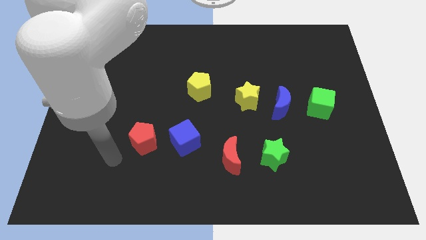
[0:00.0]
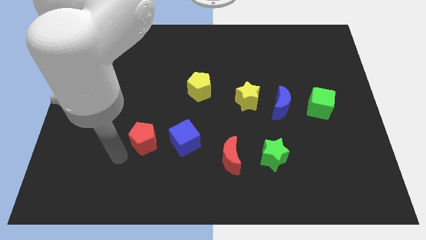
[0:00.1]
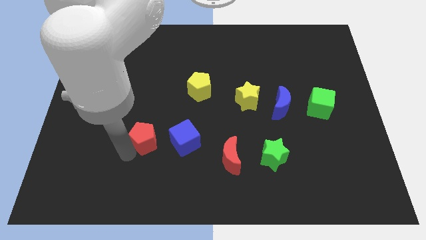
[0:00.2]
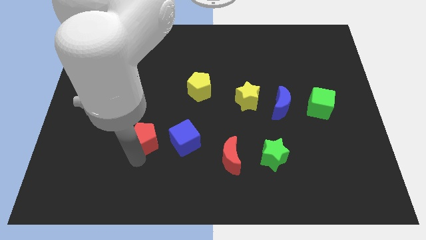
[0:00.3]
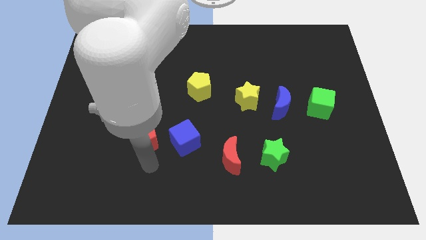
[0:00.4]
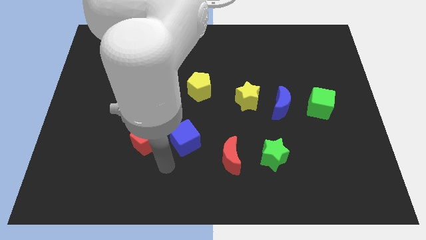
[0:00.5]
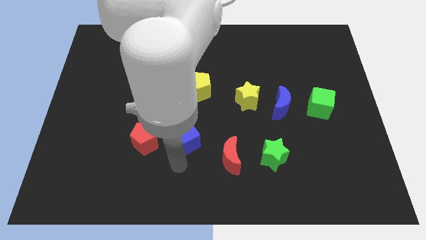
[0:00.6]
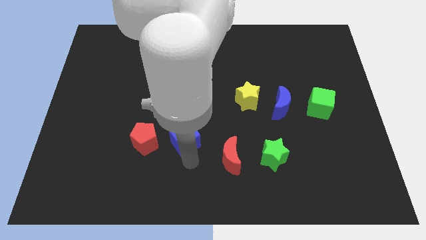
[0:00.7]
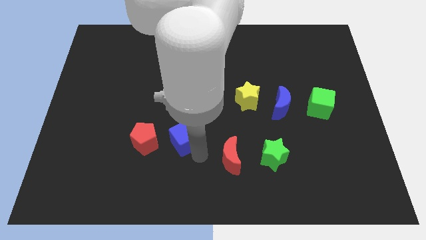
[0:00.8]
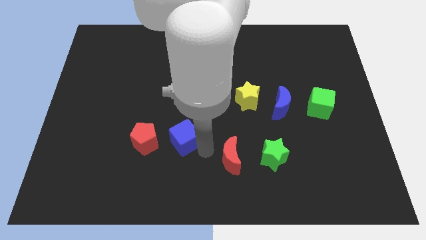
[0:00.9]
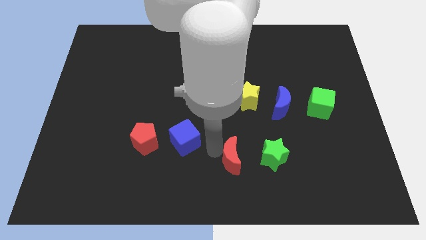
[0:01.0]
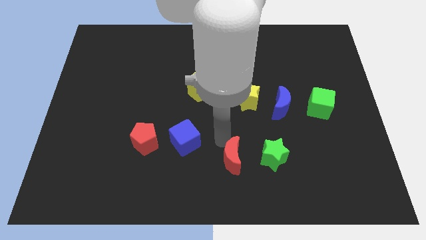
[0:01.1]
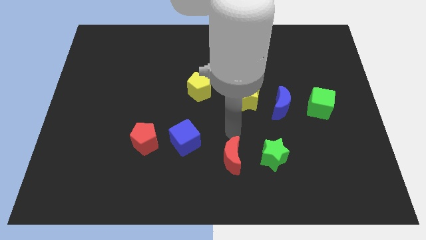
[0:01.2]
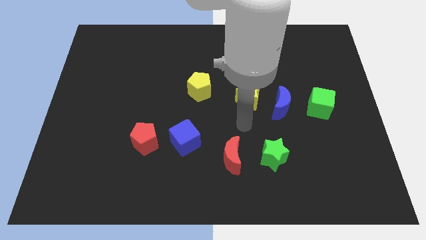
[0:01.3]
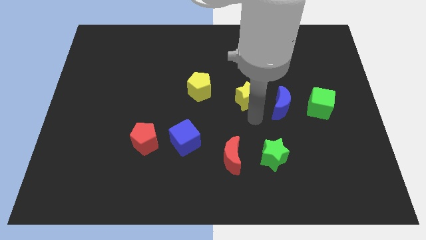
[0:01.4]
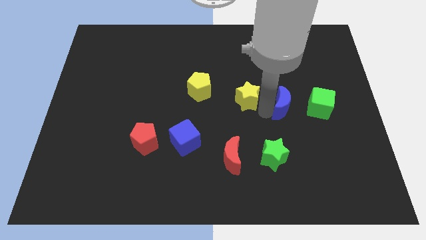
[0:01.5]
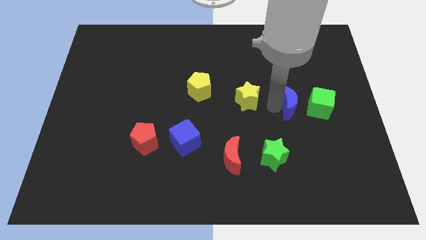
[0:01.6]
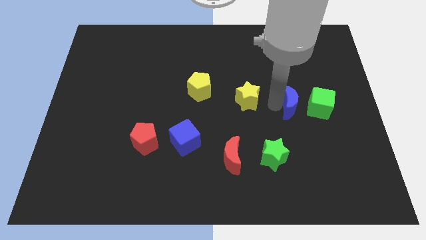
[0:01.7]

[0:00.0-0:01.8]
pull the yellow star apart from the blue moon

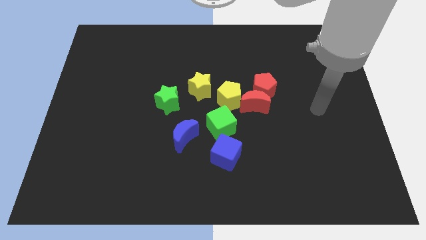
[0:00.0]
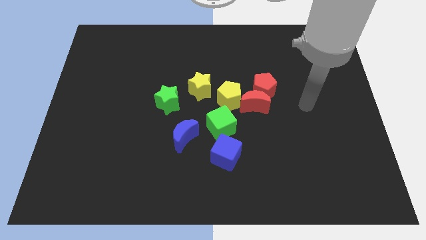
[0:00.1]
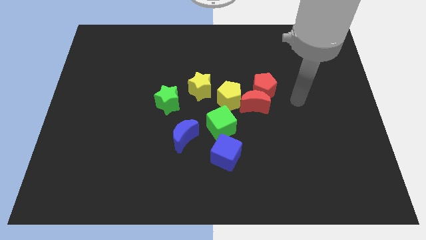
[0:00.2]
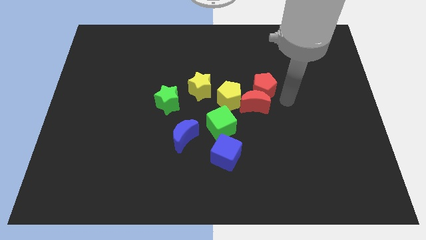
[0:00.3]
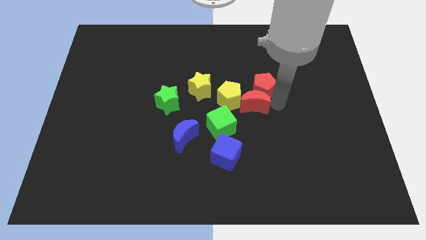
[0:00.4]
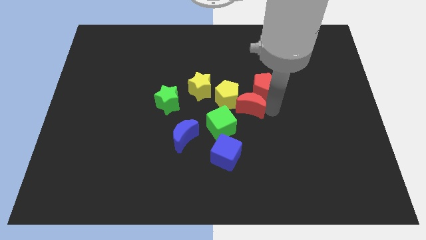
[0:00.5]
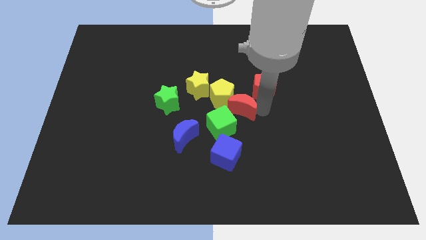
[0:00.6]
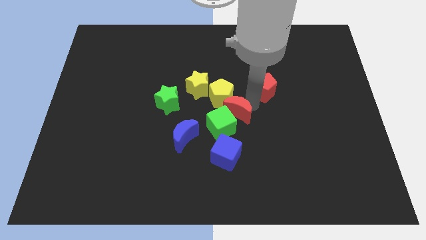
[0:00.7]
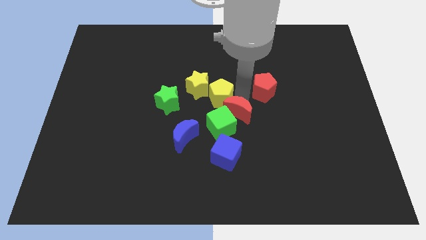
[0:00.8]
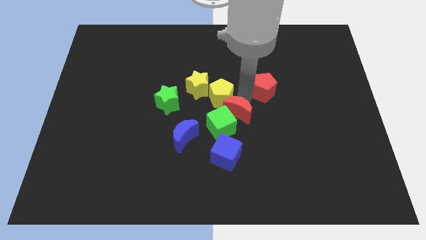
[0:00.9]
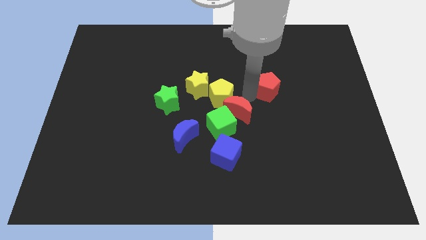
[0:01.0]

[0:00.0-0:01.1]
pull the red pentagon apart from the red moon and yellow pentagon

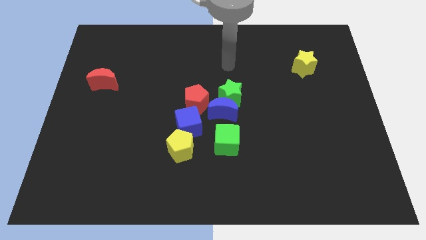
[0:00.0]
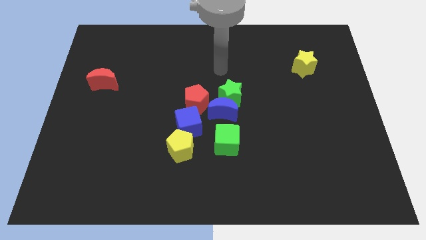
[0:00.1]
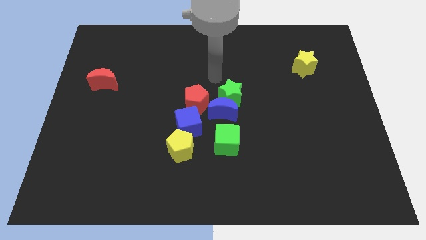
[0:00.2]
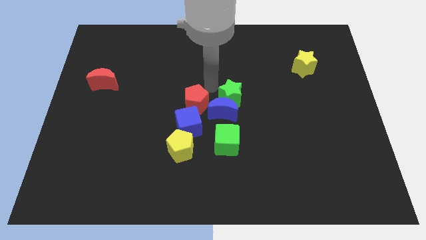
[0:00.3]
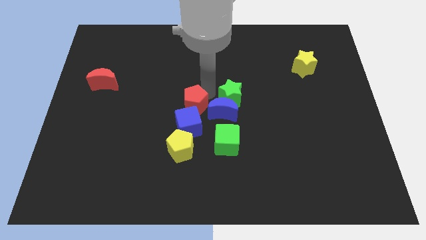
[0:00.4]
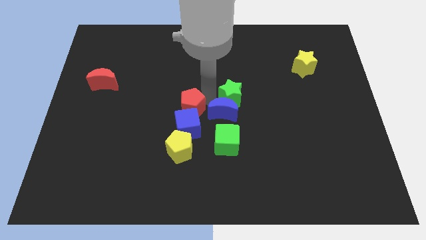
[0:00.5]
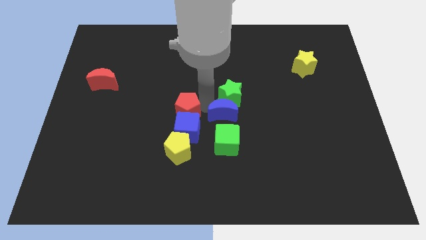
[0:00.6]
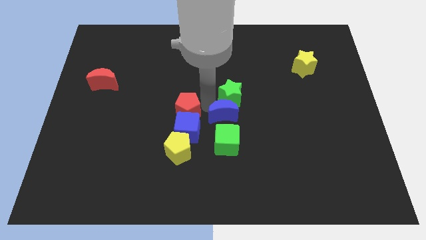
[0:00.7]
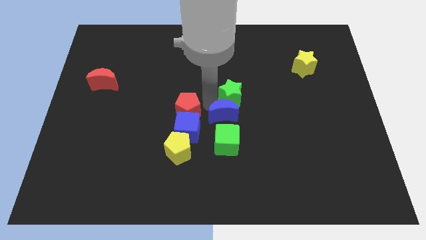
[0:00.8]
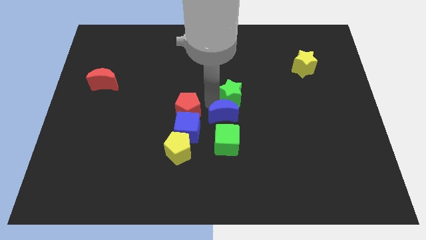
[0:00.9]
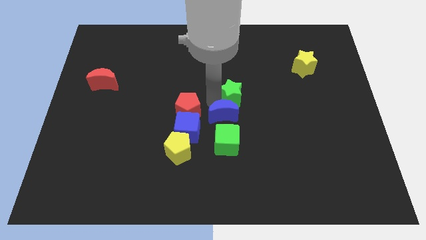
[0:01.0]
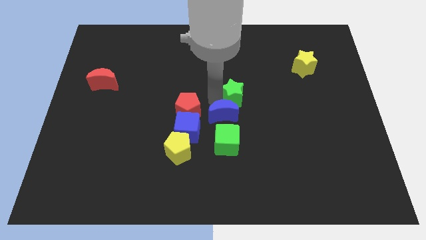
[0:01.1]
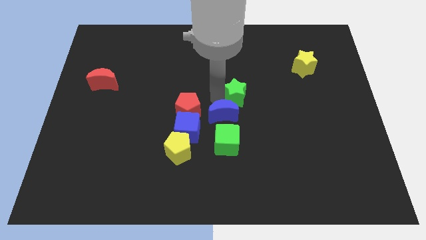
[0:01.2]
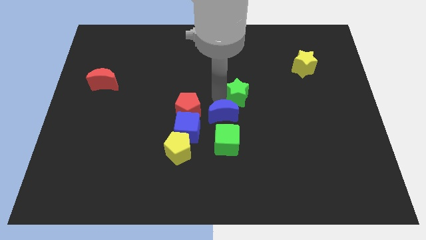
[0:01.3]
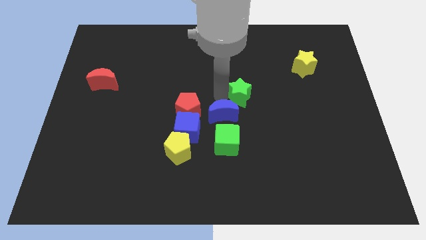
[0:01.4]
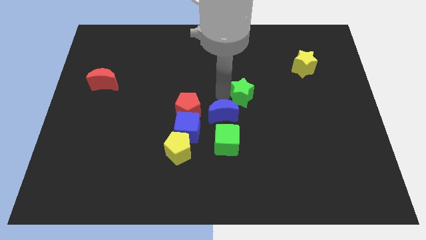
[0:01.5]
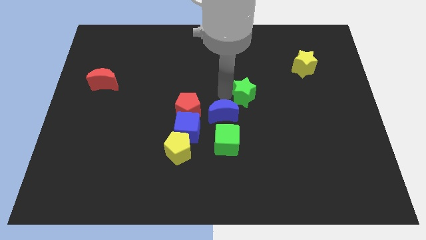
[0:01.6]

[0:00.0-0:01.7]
separate the green star from the blue moon and red pentagon

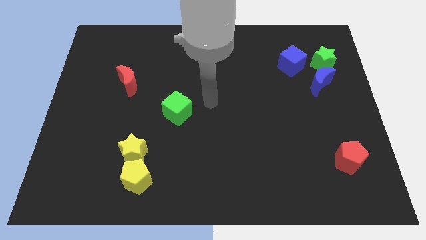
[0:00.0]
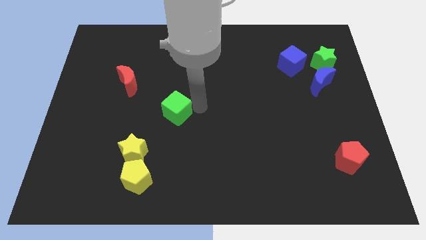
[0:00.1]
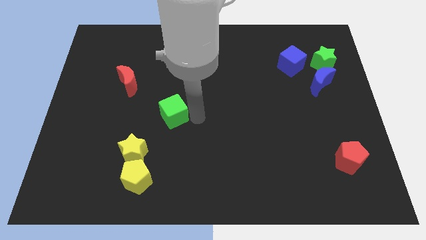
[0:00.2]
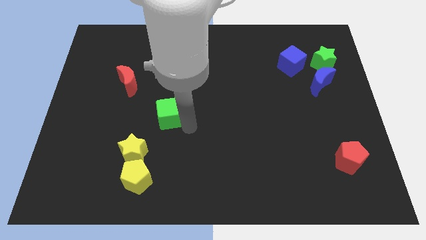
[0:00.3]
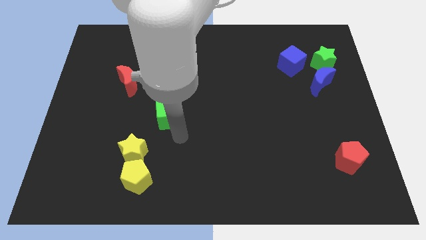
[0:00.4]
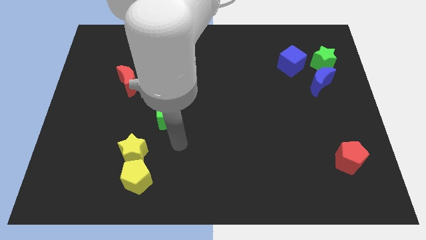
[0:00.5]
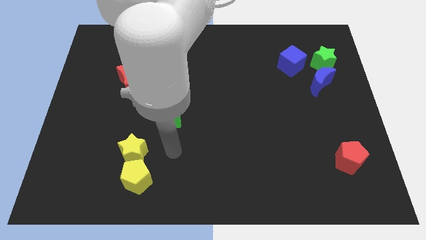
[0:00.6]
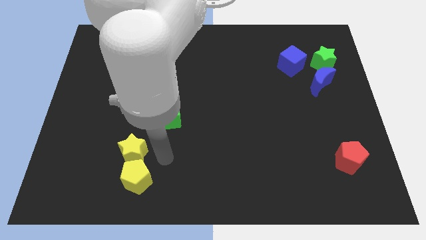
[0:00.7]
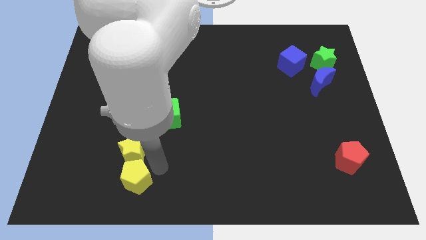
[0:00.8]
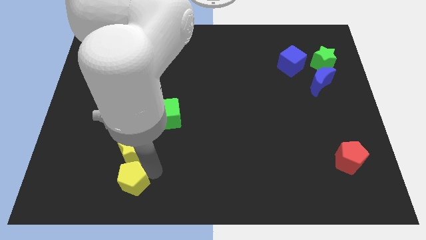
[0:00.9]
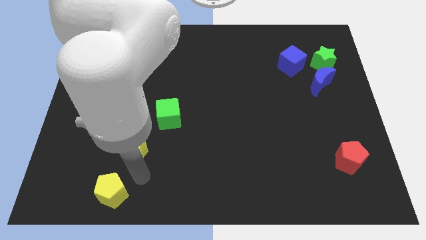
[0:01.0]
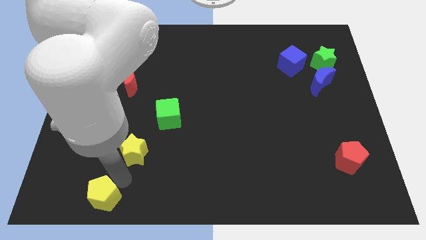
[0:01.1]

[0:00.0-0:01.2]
move the yellow star away from the yellow pentagon

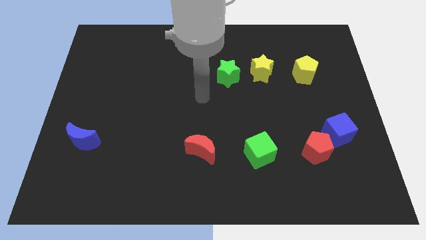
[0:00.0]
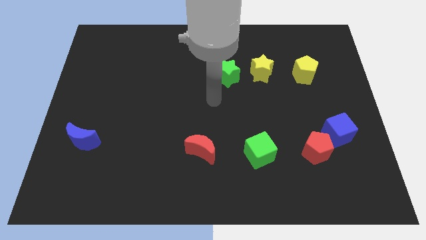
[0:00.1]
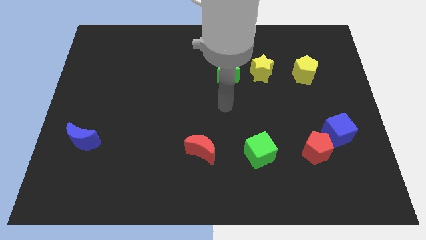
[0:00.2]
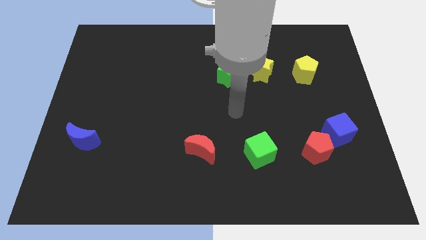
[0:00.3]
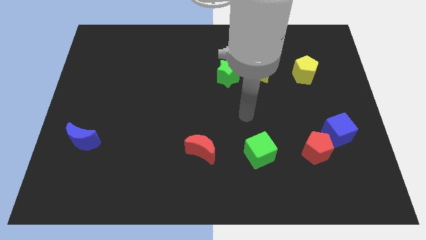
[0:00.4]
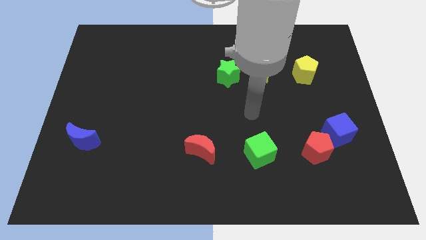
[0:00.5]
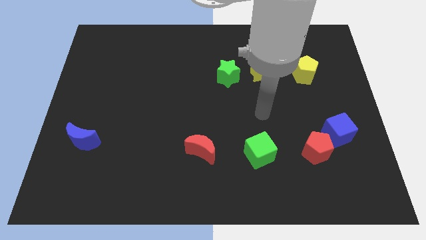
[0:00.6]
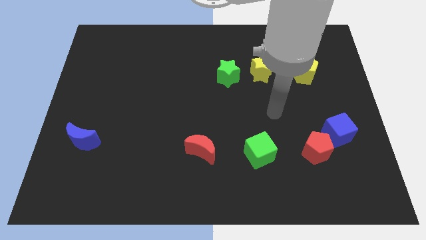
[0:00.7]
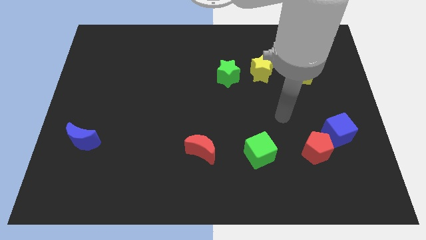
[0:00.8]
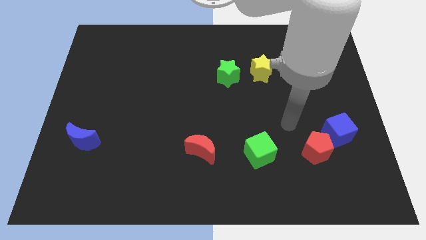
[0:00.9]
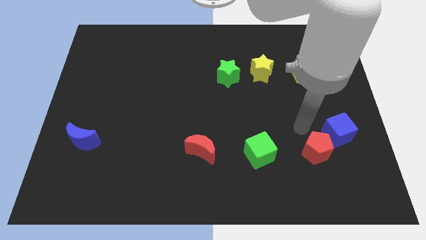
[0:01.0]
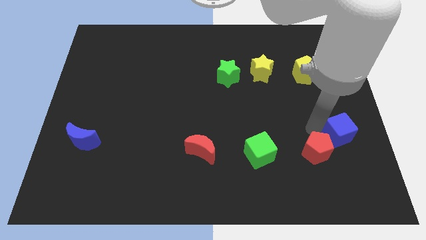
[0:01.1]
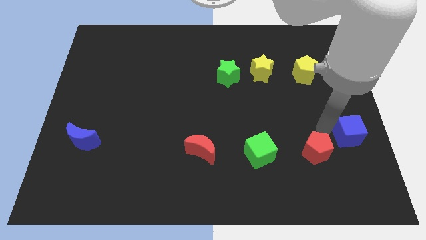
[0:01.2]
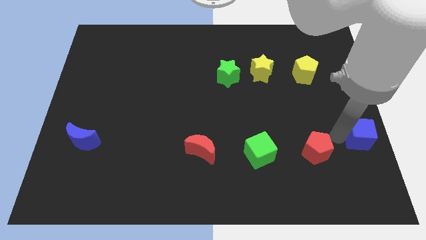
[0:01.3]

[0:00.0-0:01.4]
pull the red pentagon apart from the blue cube

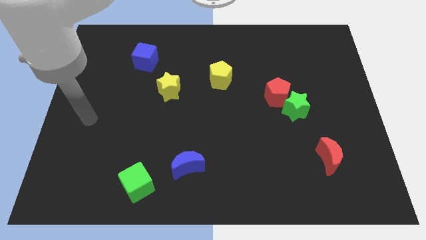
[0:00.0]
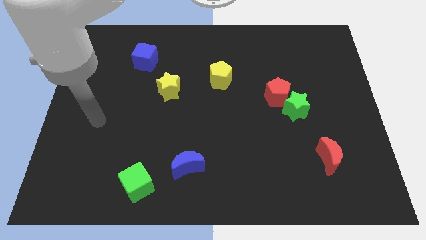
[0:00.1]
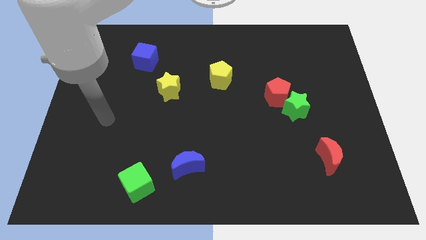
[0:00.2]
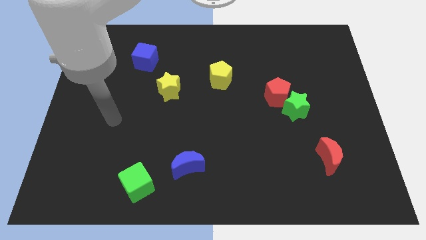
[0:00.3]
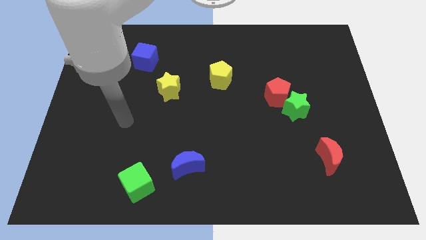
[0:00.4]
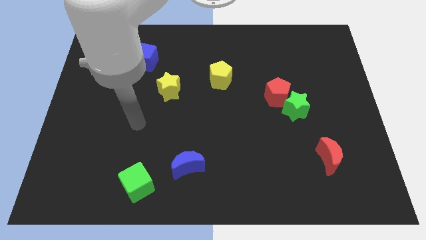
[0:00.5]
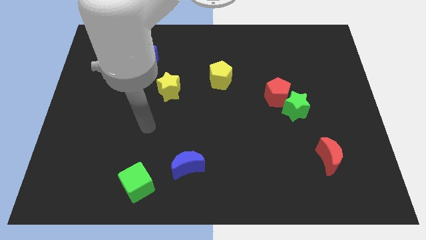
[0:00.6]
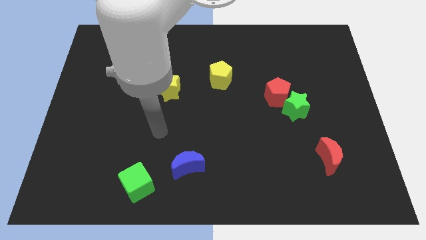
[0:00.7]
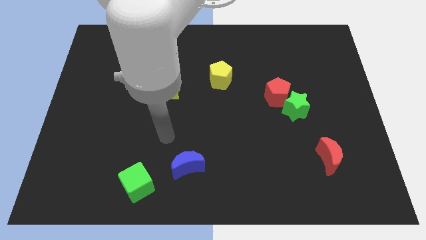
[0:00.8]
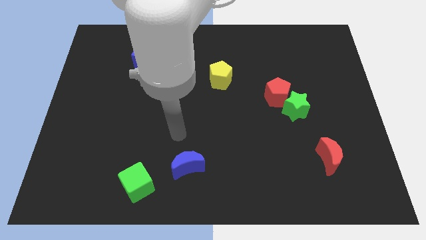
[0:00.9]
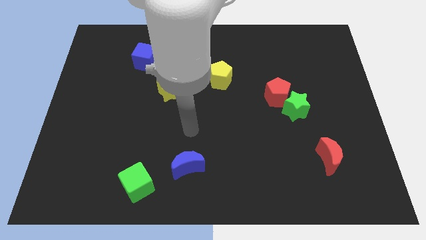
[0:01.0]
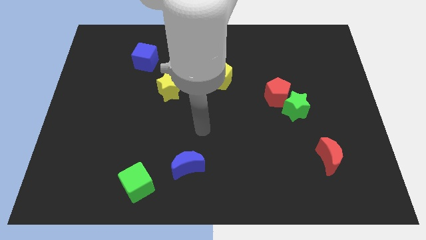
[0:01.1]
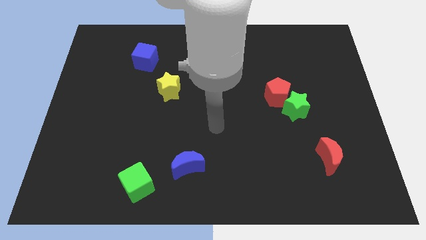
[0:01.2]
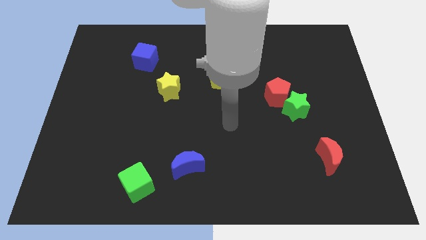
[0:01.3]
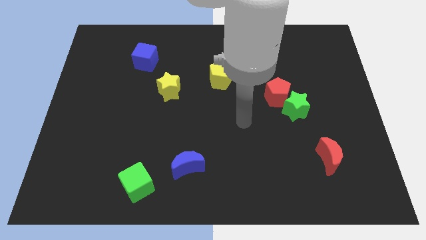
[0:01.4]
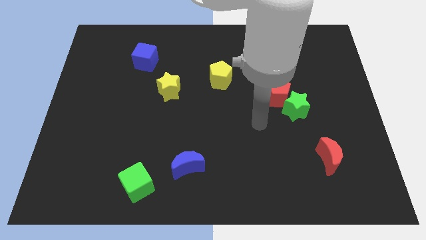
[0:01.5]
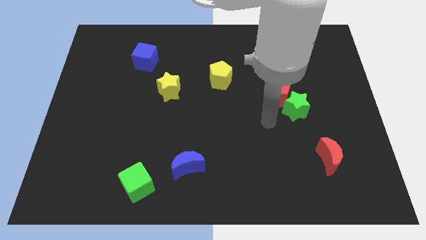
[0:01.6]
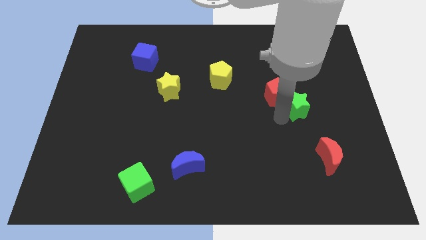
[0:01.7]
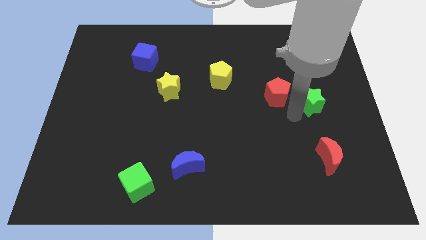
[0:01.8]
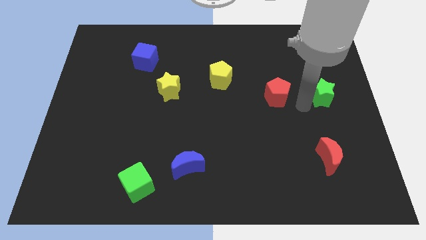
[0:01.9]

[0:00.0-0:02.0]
move the red pentagon away from the green star
